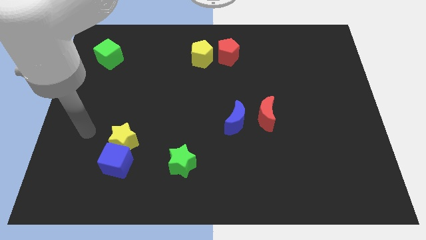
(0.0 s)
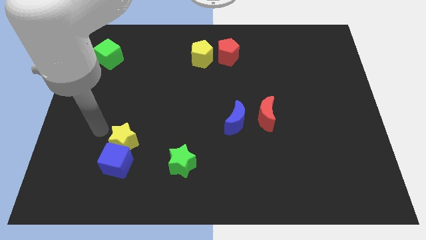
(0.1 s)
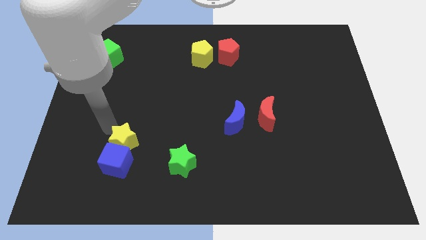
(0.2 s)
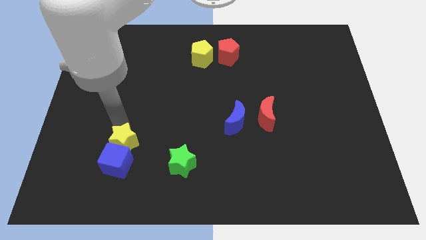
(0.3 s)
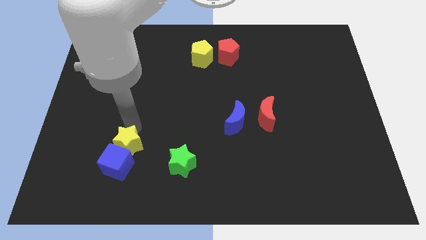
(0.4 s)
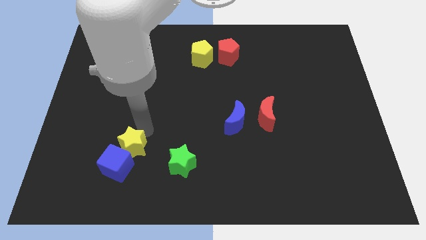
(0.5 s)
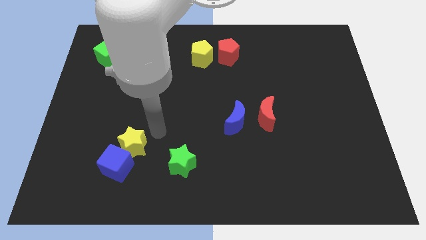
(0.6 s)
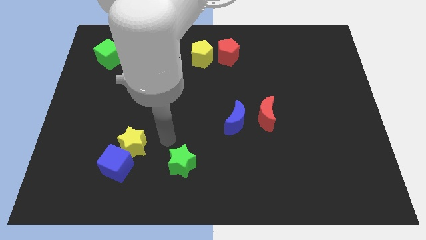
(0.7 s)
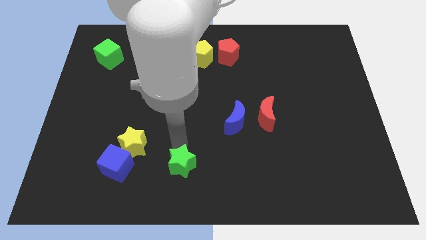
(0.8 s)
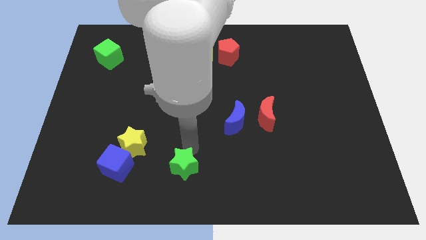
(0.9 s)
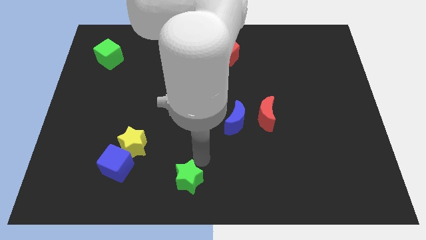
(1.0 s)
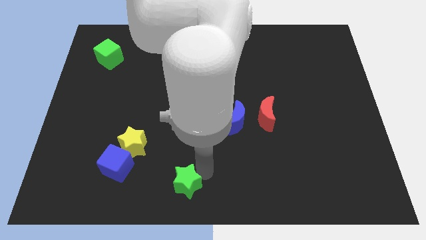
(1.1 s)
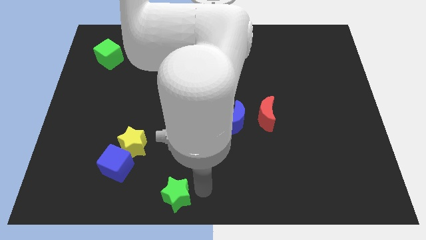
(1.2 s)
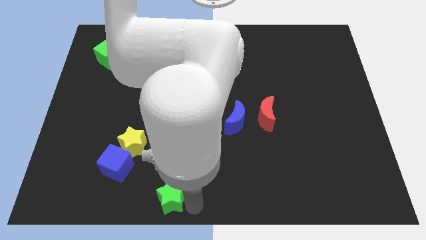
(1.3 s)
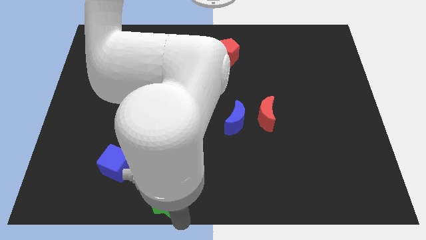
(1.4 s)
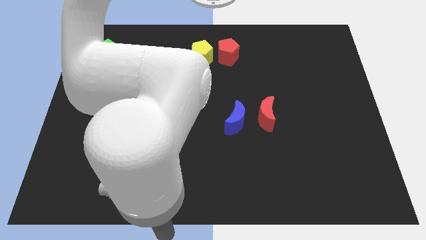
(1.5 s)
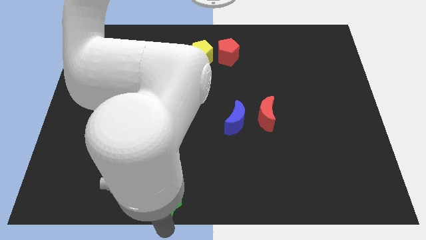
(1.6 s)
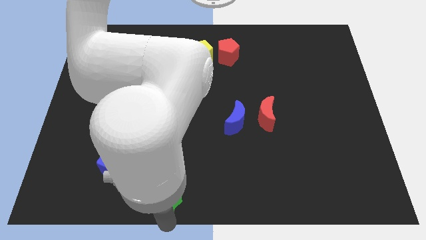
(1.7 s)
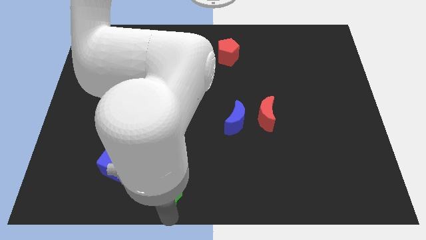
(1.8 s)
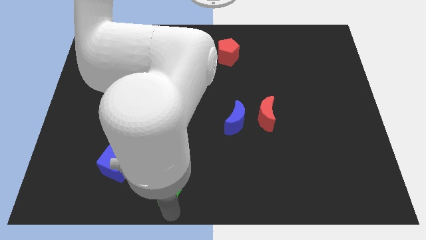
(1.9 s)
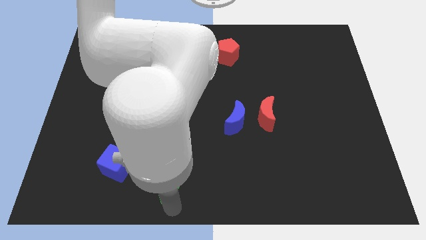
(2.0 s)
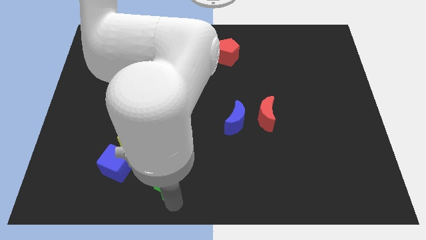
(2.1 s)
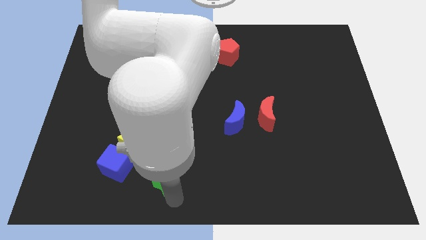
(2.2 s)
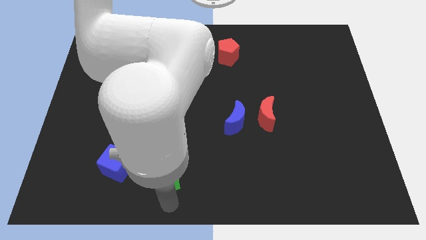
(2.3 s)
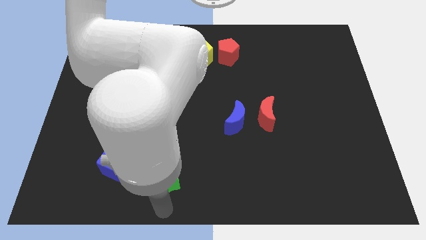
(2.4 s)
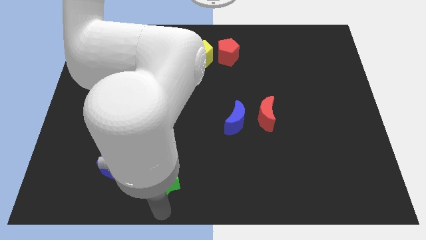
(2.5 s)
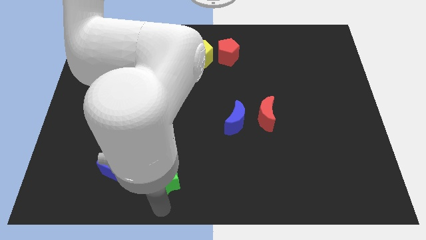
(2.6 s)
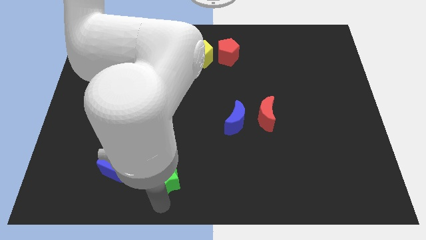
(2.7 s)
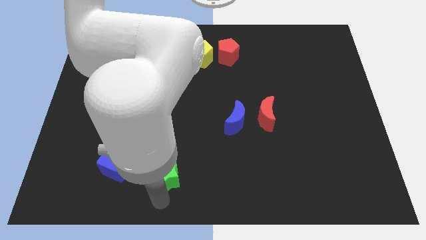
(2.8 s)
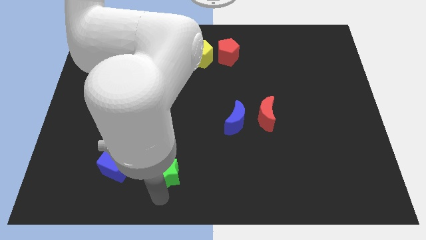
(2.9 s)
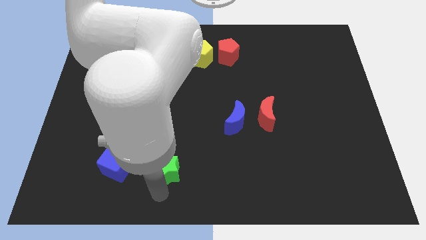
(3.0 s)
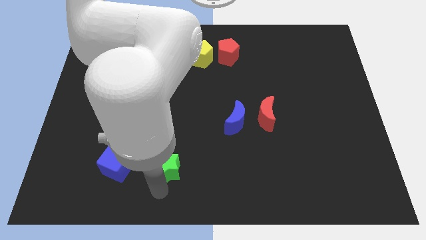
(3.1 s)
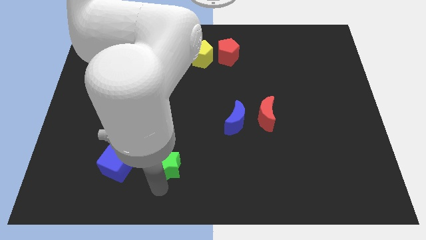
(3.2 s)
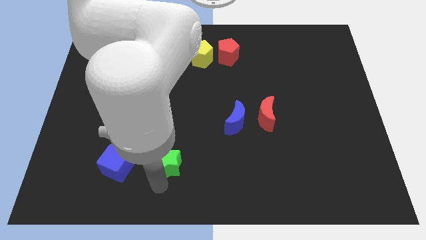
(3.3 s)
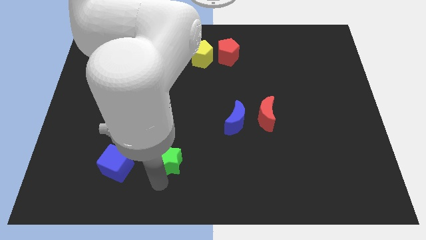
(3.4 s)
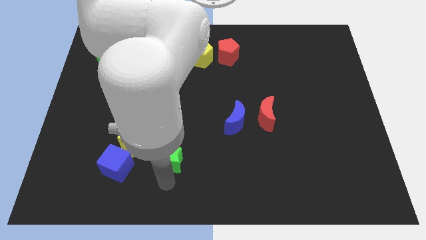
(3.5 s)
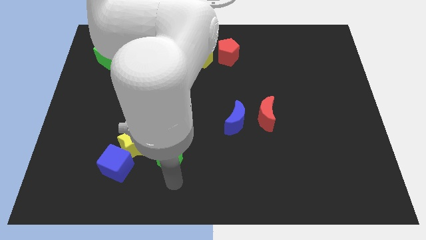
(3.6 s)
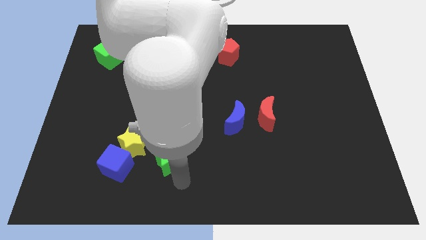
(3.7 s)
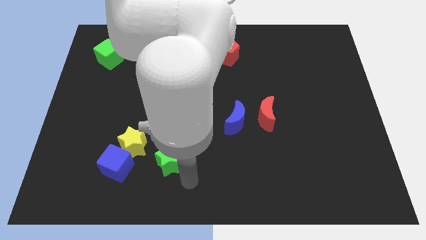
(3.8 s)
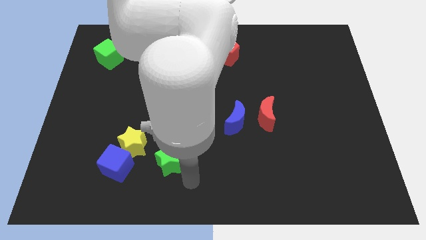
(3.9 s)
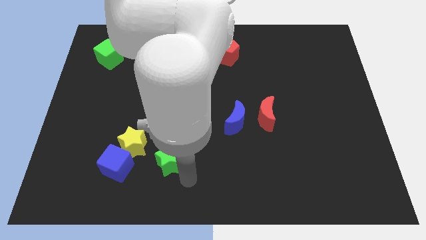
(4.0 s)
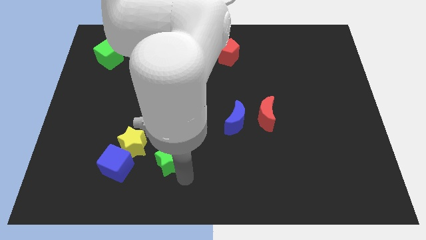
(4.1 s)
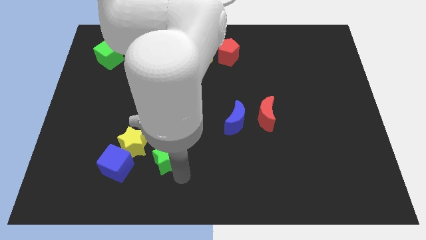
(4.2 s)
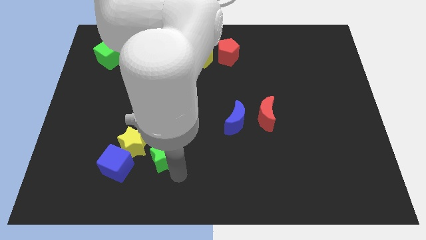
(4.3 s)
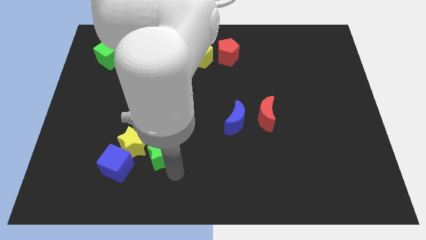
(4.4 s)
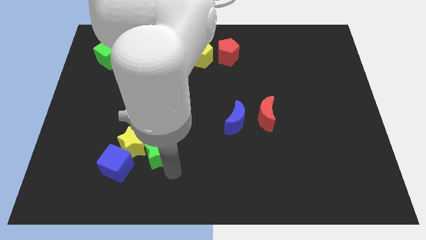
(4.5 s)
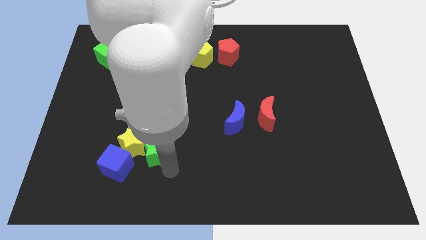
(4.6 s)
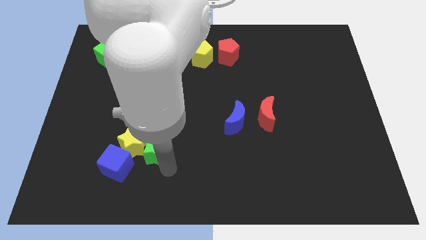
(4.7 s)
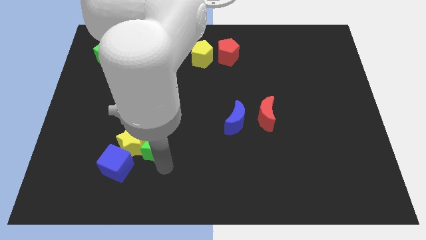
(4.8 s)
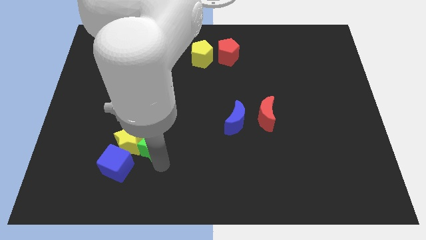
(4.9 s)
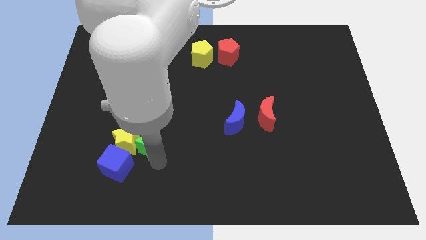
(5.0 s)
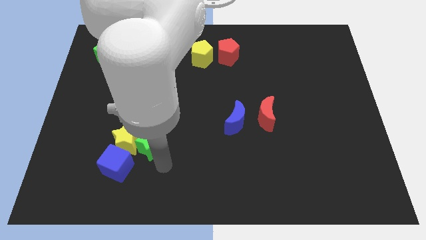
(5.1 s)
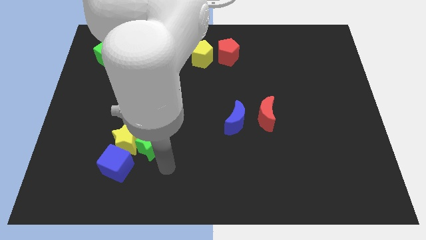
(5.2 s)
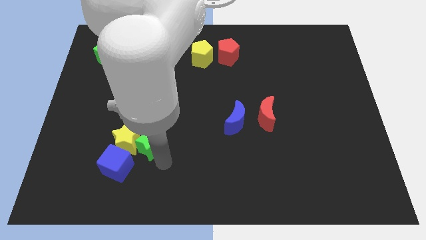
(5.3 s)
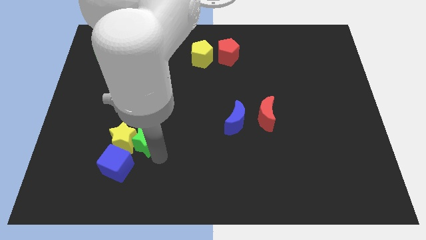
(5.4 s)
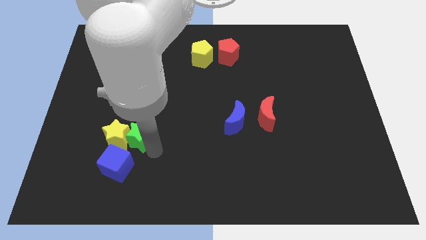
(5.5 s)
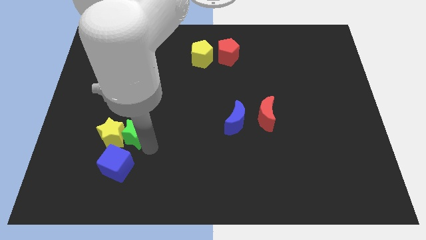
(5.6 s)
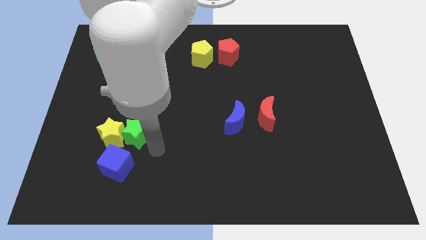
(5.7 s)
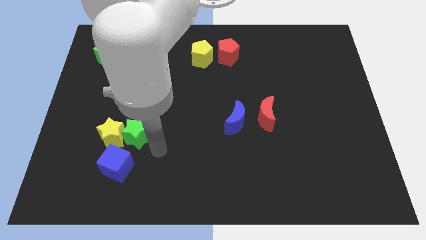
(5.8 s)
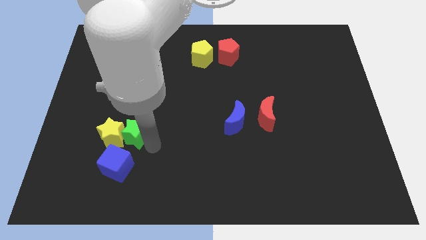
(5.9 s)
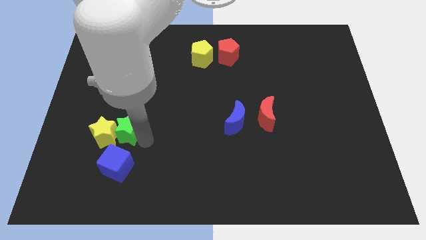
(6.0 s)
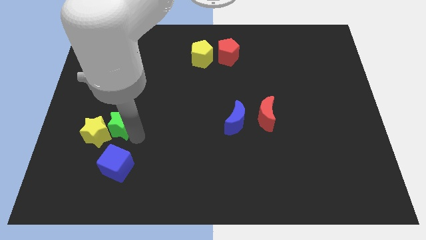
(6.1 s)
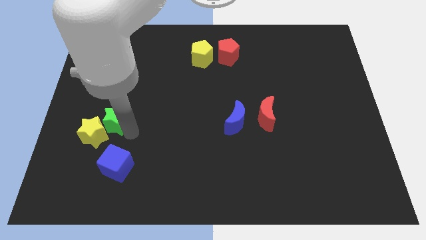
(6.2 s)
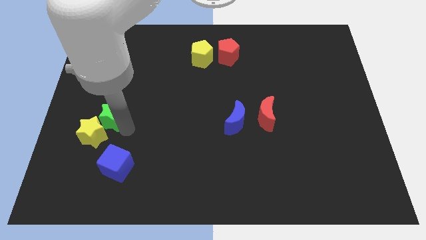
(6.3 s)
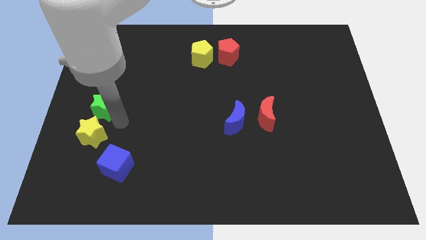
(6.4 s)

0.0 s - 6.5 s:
push the green star to the left side of the board
